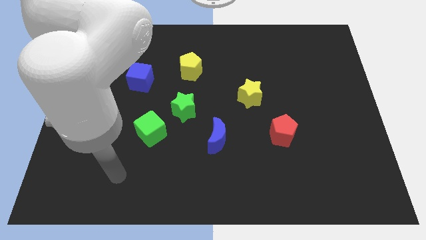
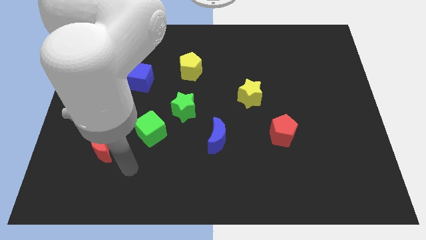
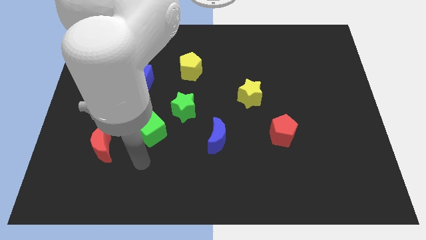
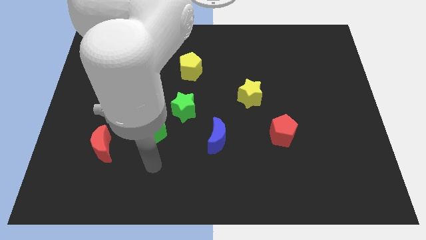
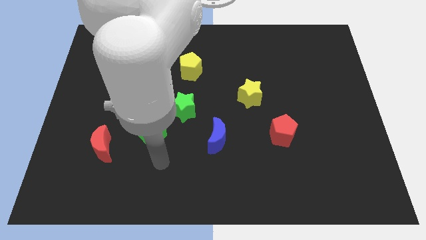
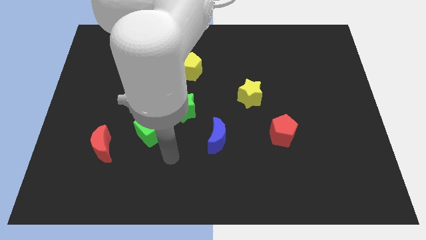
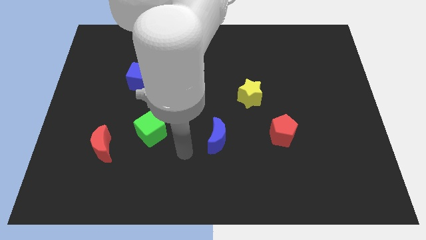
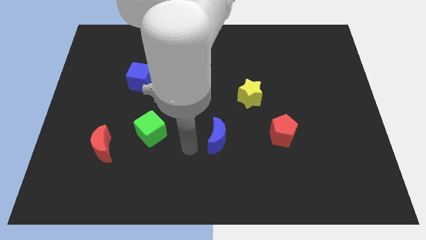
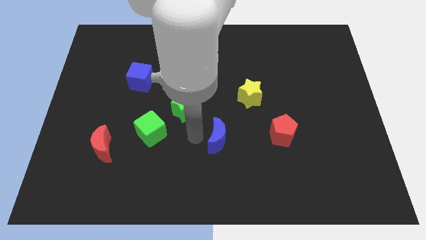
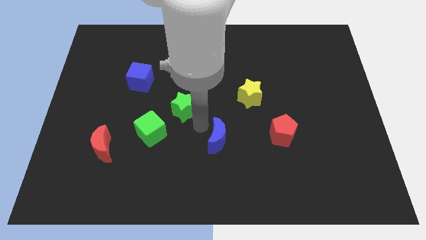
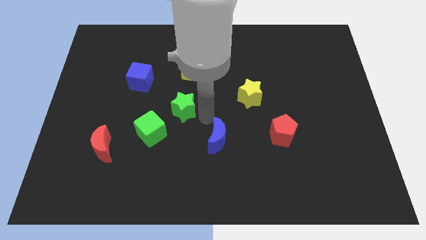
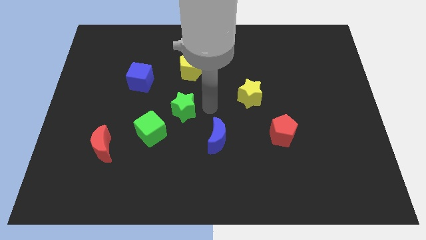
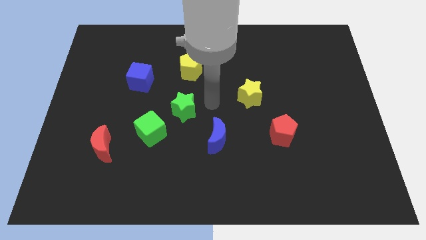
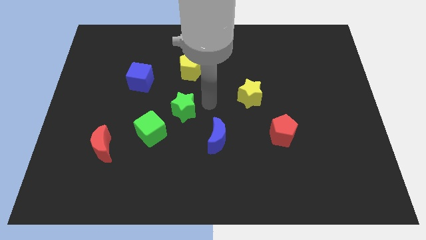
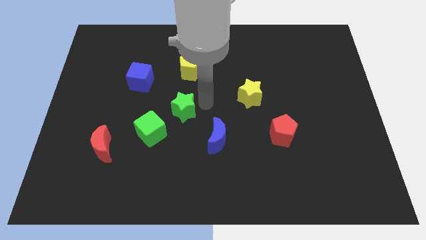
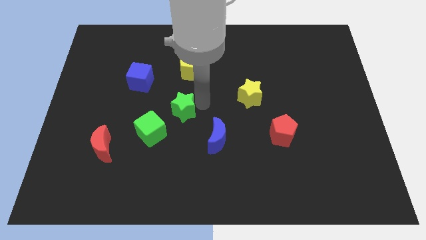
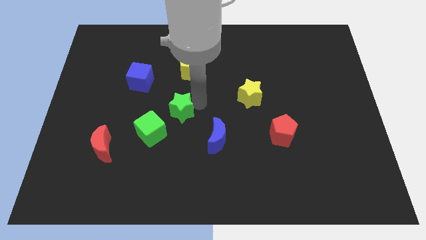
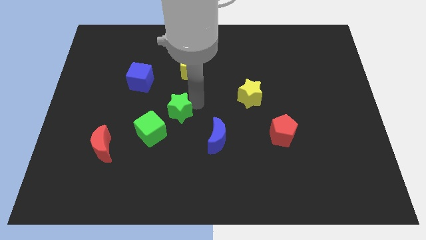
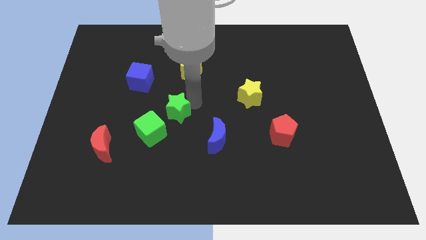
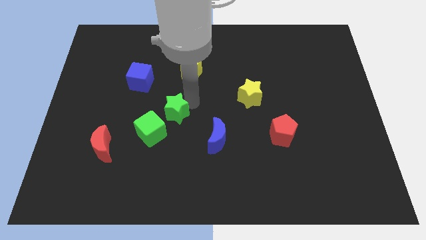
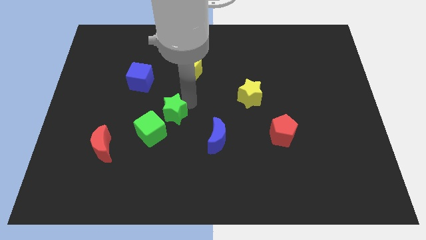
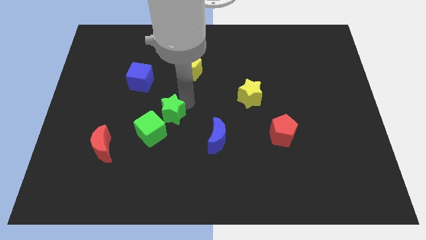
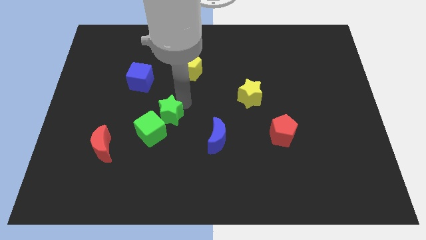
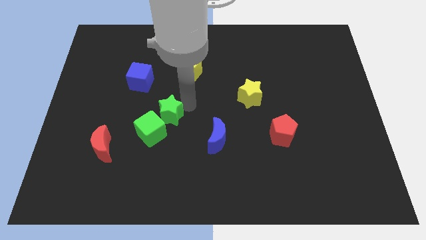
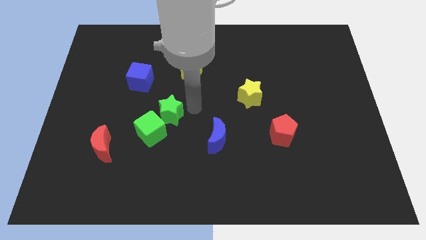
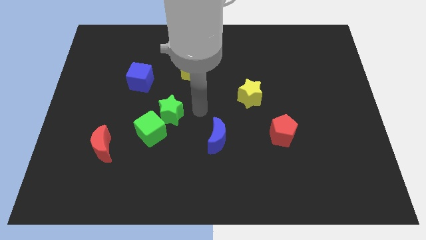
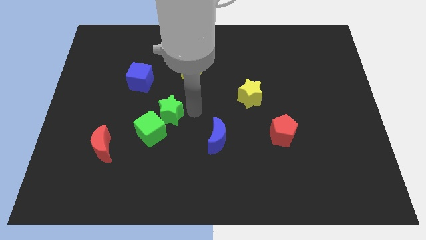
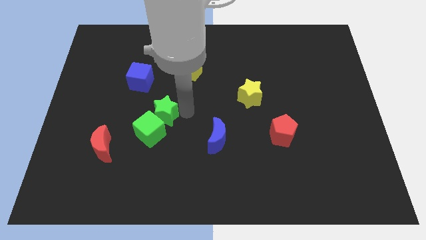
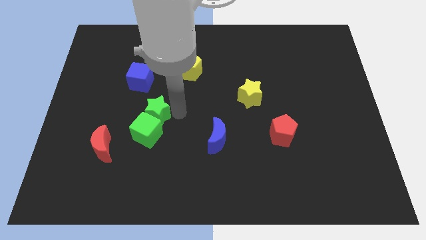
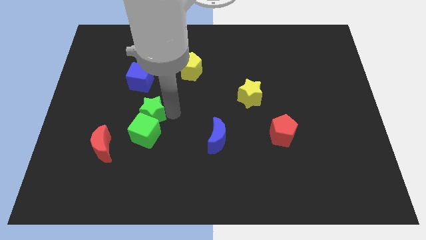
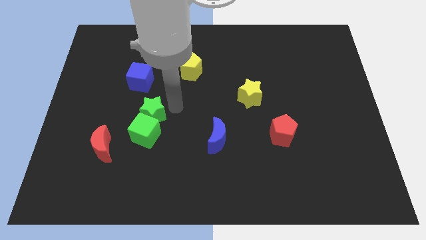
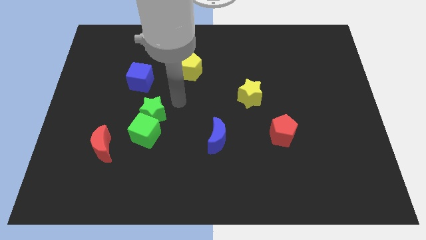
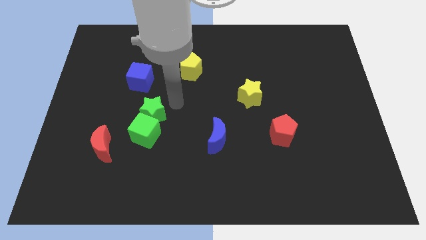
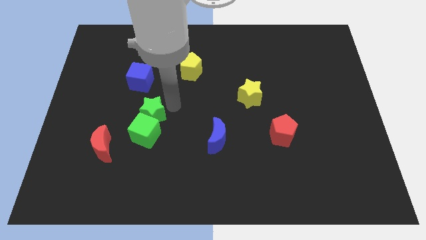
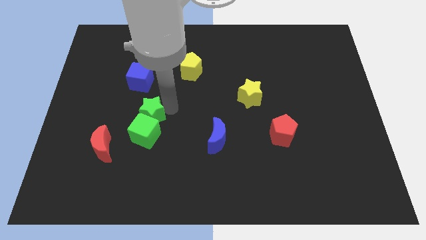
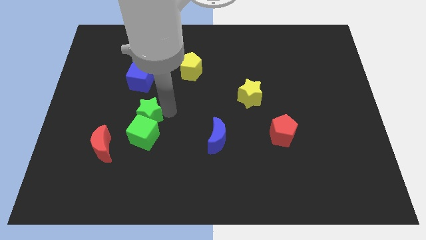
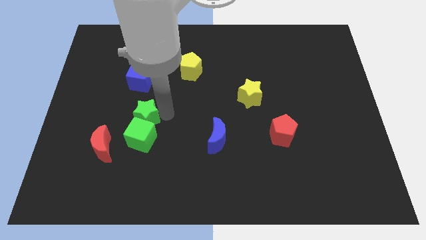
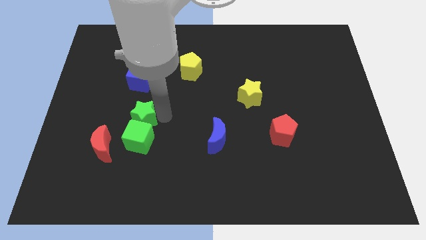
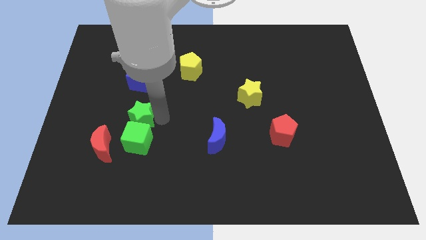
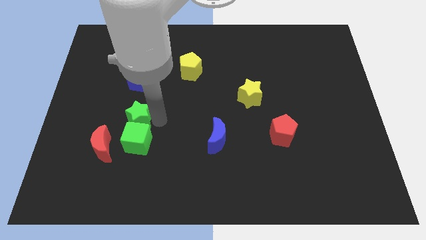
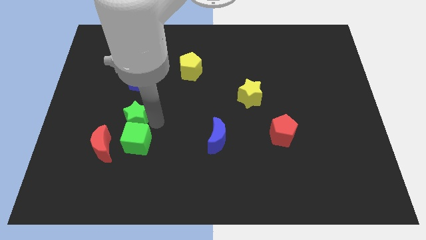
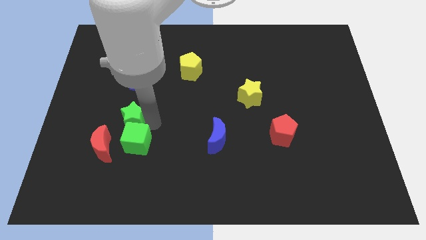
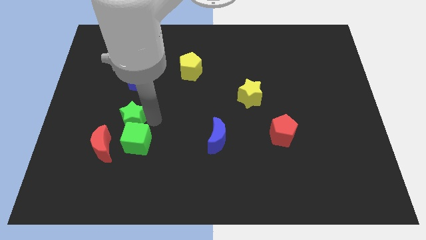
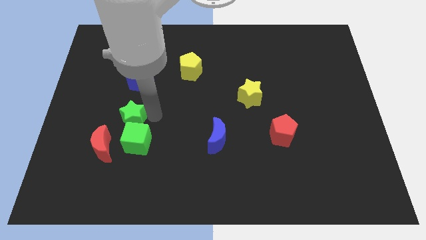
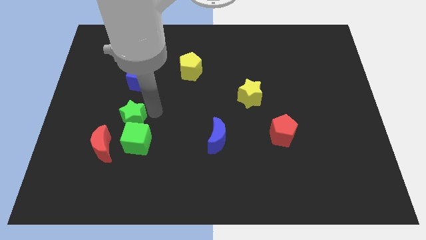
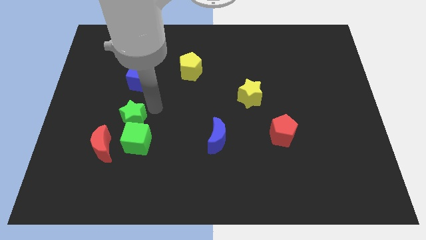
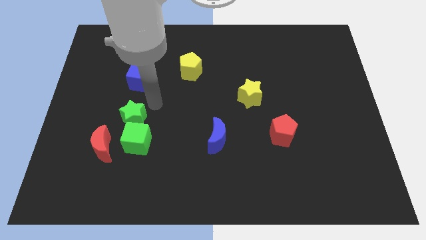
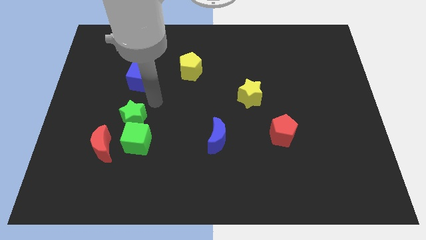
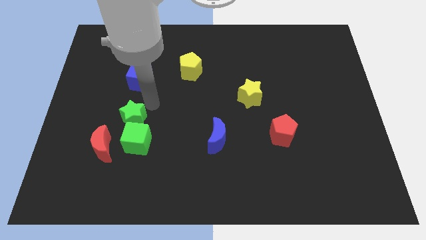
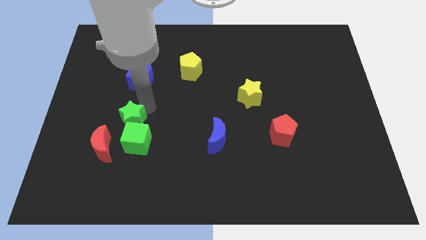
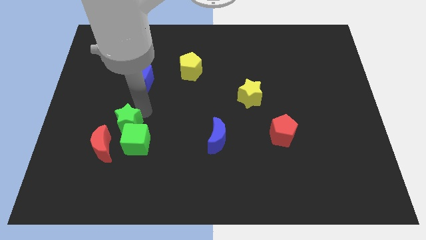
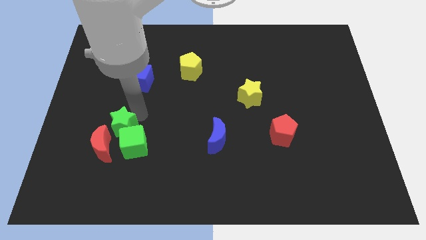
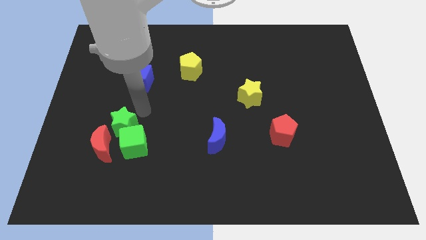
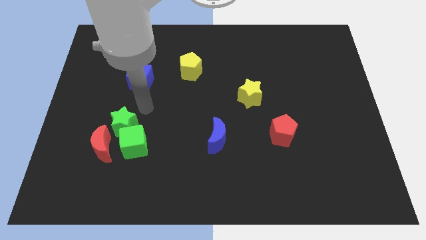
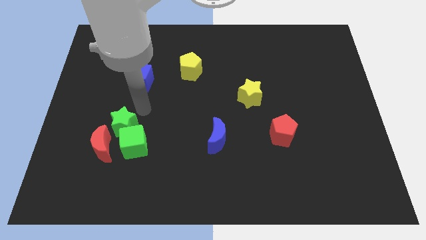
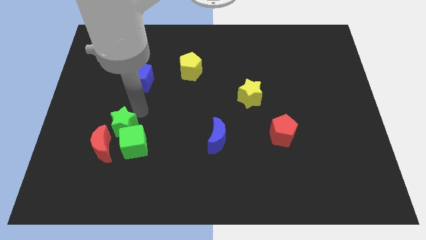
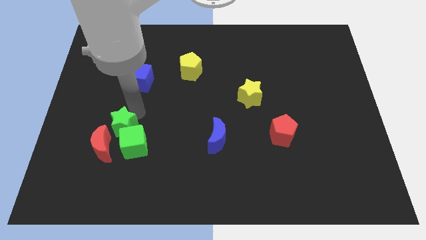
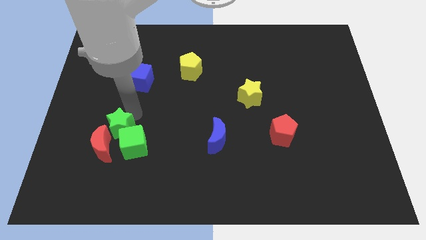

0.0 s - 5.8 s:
move the green star to the red moon
